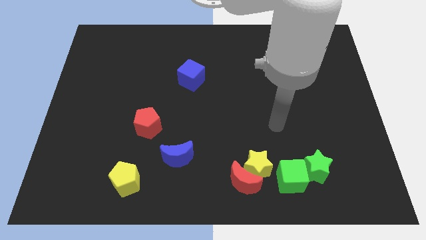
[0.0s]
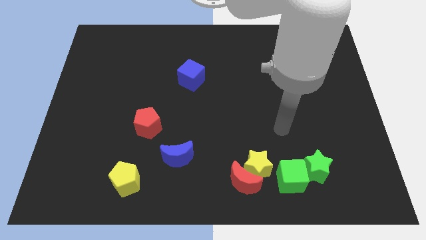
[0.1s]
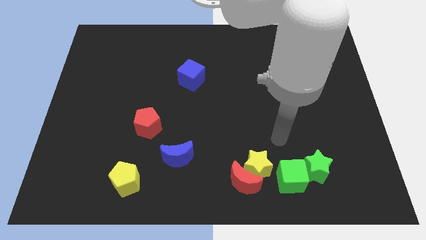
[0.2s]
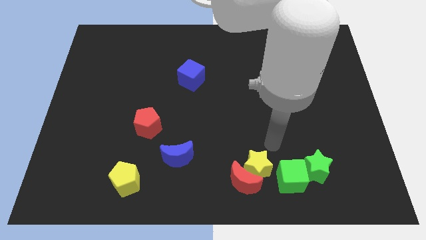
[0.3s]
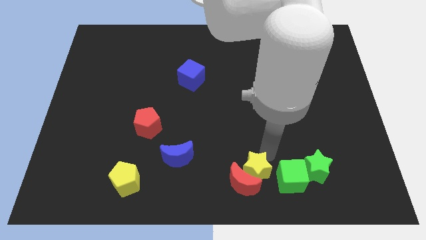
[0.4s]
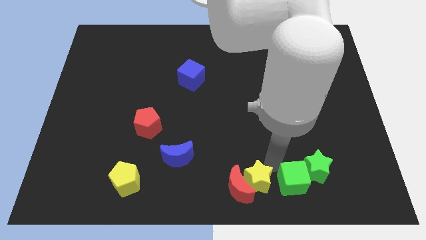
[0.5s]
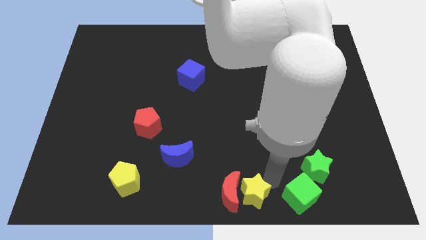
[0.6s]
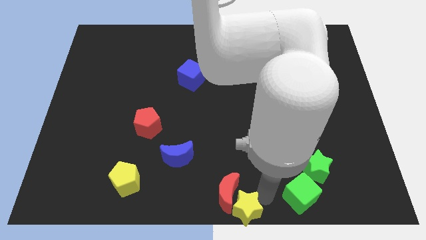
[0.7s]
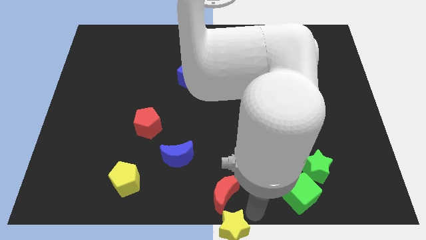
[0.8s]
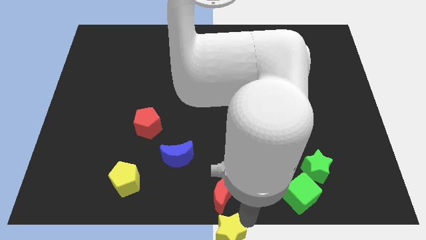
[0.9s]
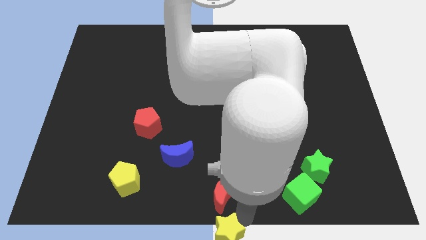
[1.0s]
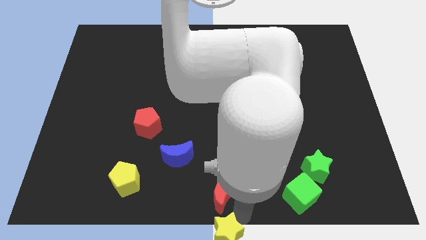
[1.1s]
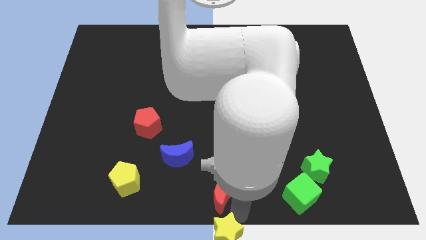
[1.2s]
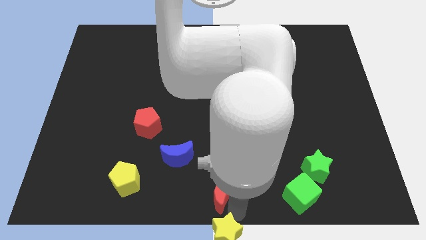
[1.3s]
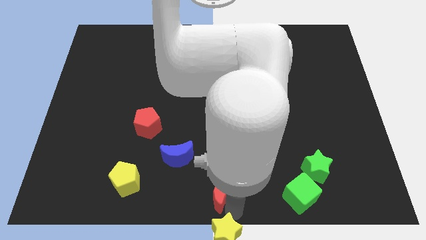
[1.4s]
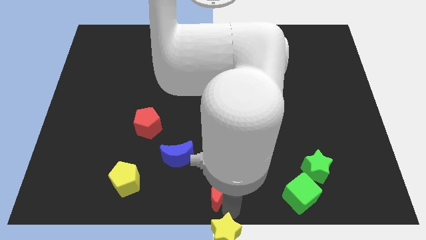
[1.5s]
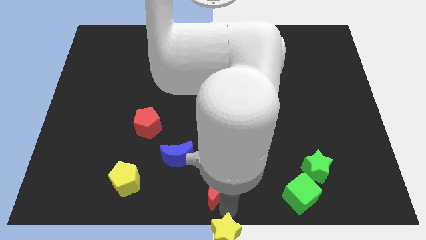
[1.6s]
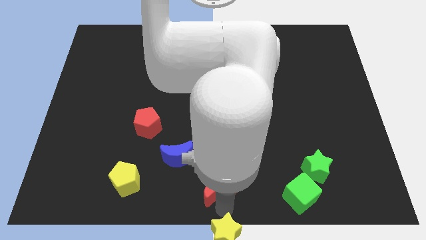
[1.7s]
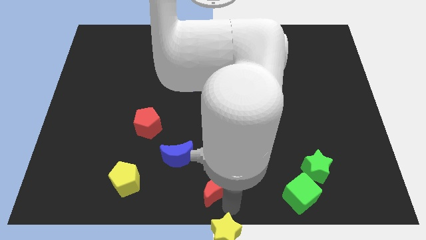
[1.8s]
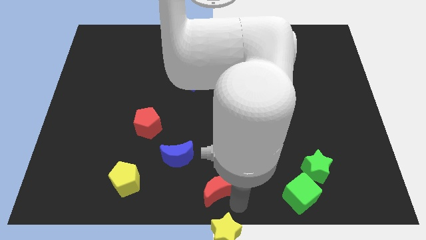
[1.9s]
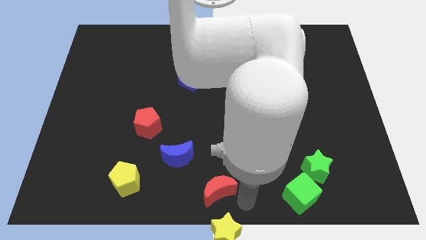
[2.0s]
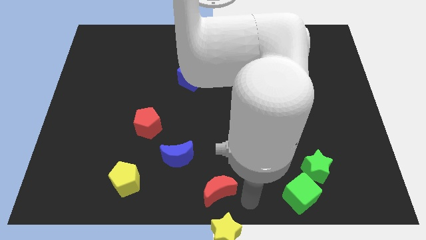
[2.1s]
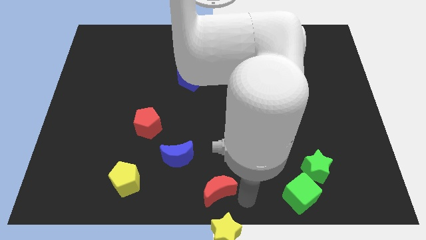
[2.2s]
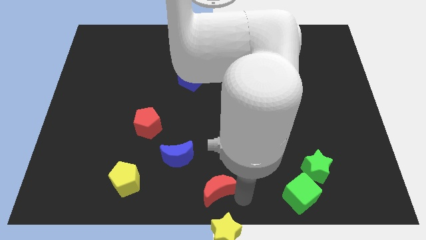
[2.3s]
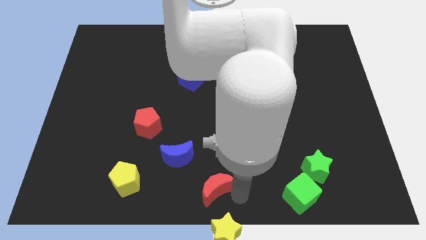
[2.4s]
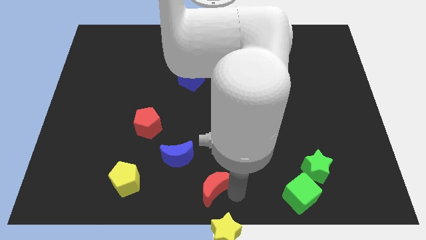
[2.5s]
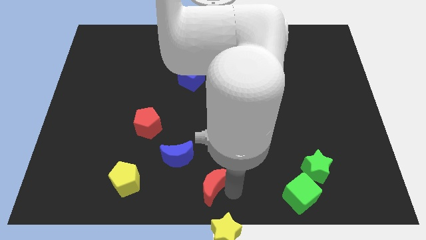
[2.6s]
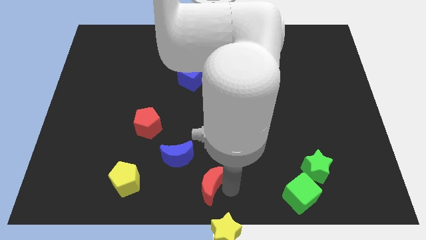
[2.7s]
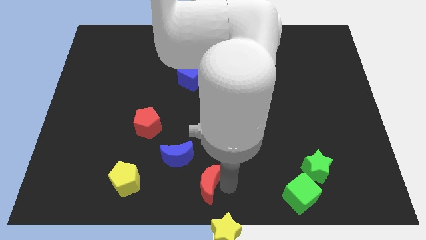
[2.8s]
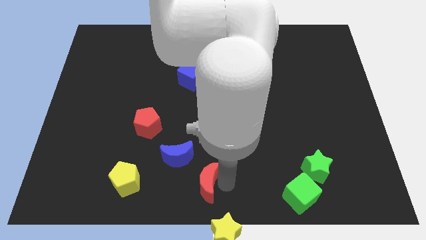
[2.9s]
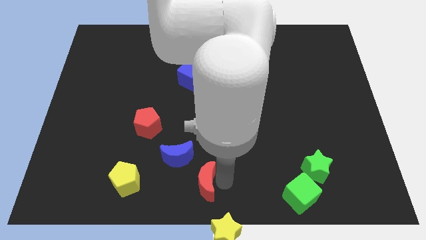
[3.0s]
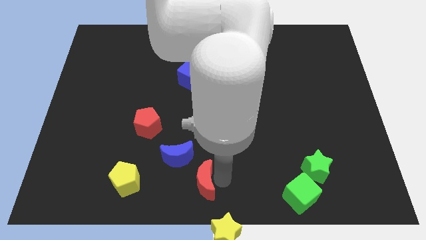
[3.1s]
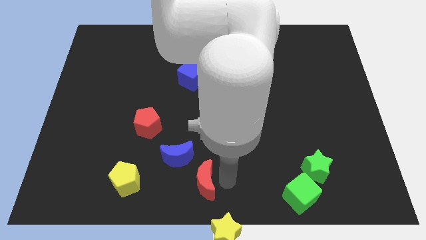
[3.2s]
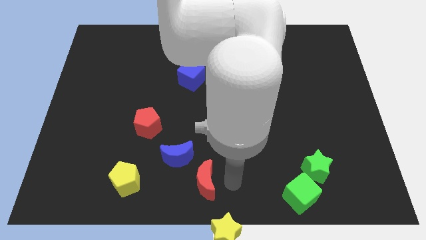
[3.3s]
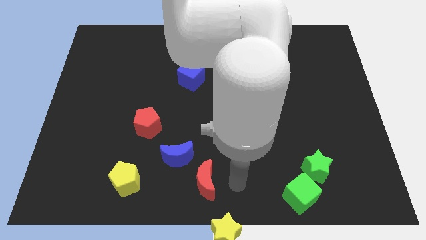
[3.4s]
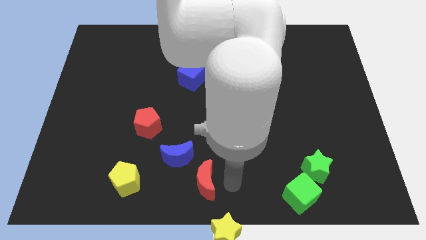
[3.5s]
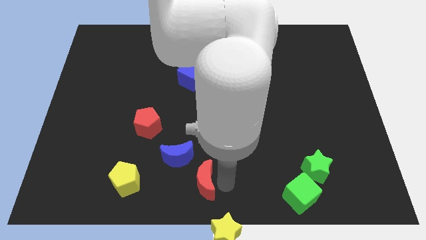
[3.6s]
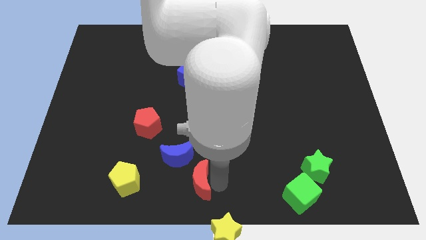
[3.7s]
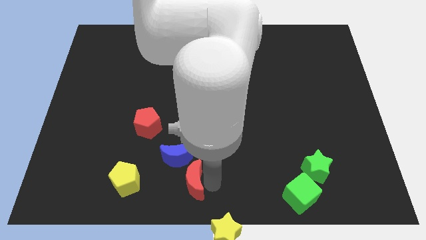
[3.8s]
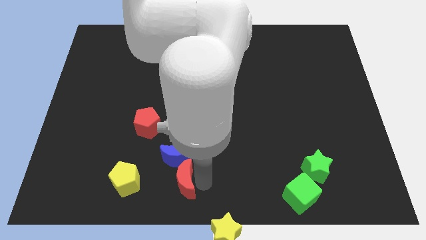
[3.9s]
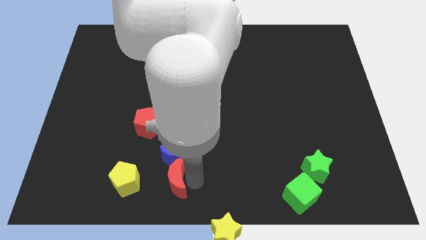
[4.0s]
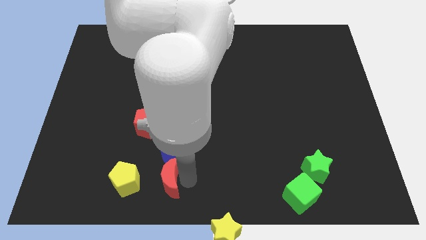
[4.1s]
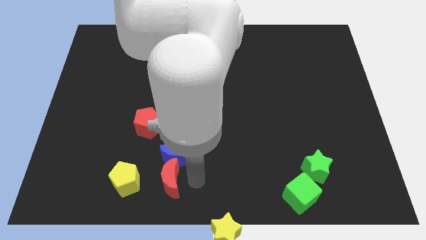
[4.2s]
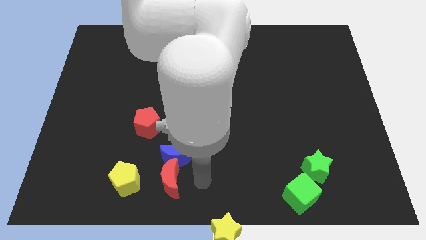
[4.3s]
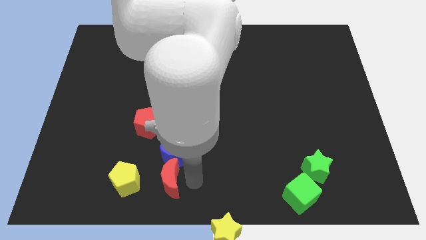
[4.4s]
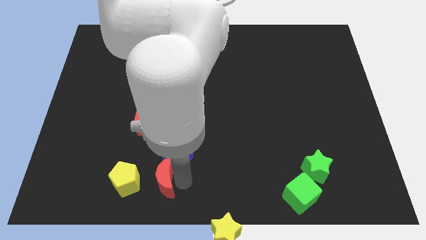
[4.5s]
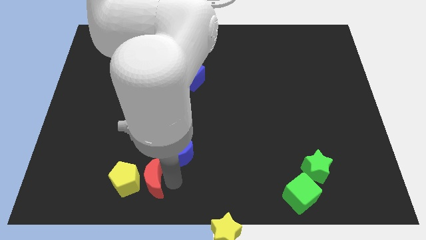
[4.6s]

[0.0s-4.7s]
push the red moon to the yellow pentagon

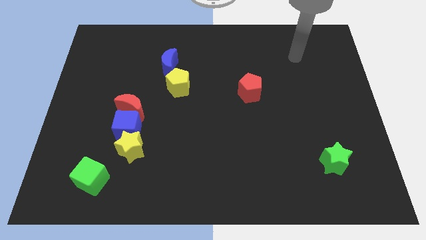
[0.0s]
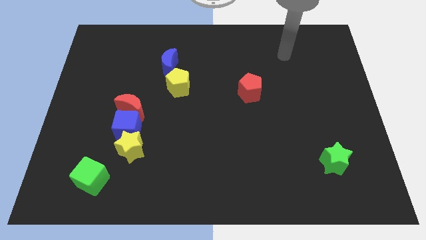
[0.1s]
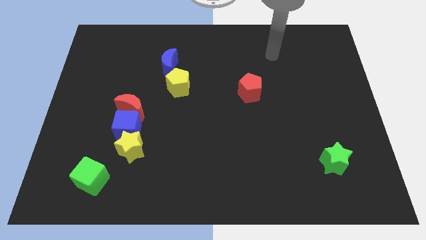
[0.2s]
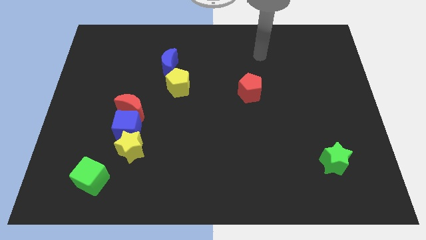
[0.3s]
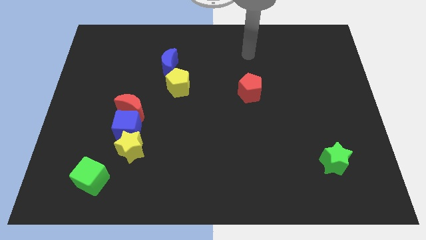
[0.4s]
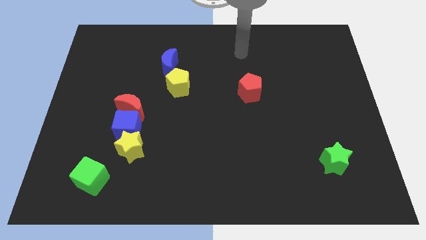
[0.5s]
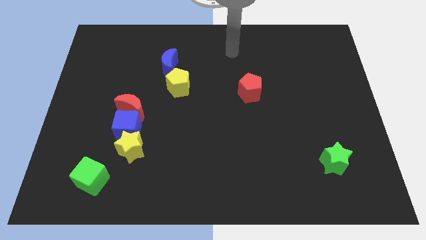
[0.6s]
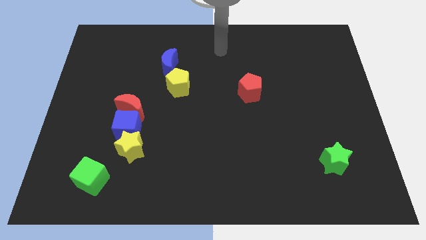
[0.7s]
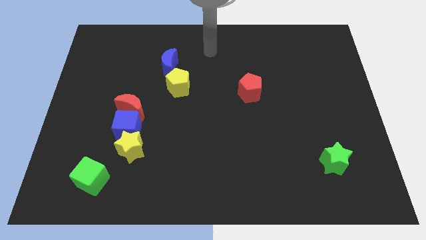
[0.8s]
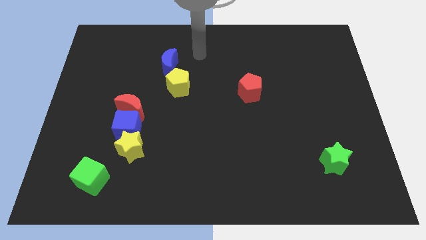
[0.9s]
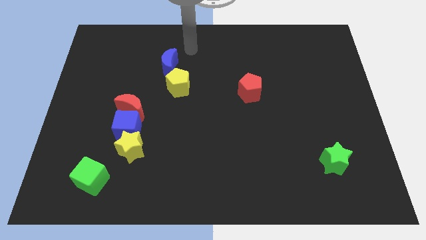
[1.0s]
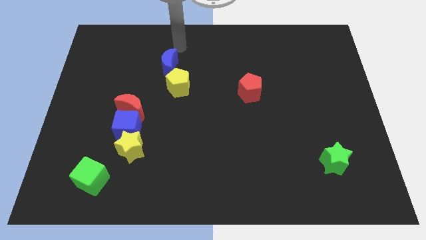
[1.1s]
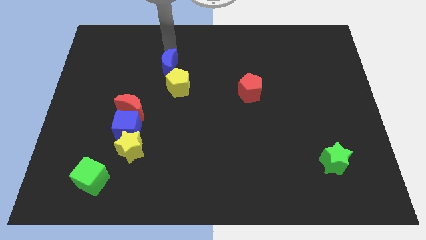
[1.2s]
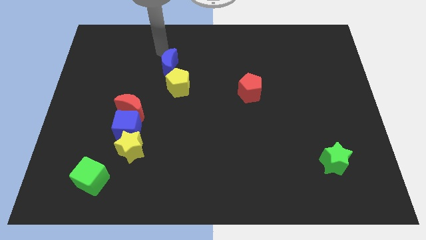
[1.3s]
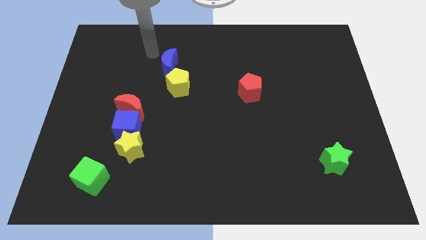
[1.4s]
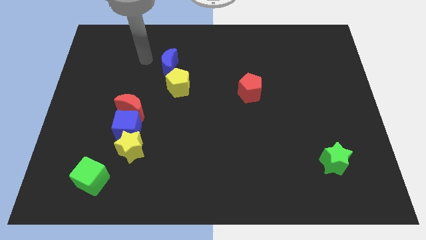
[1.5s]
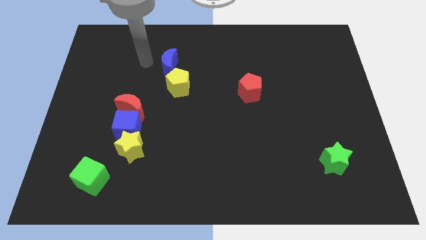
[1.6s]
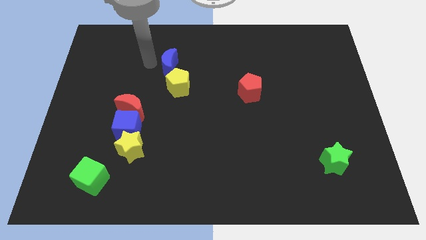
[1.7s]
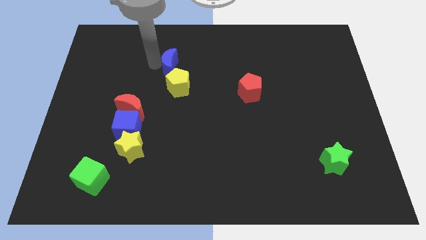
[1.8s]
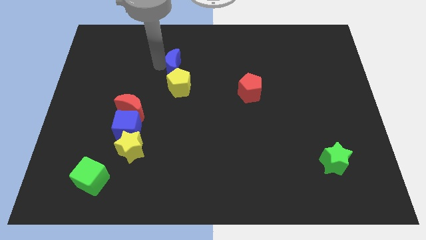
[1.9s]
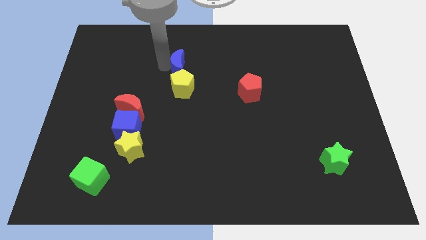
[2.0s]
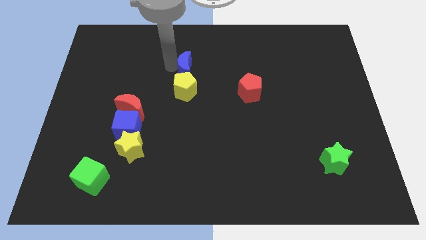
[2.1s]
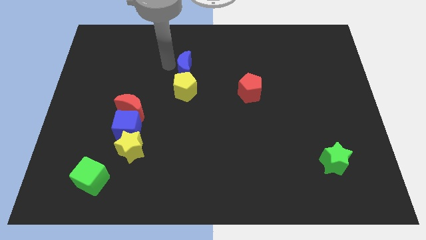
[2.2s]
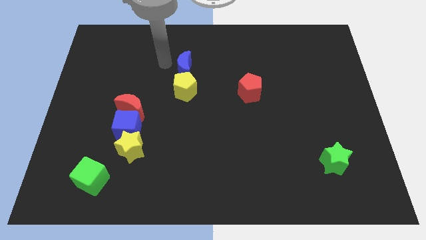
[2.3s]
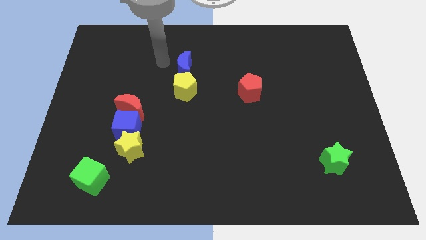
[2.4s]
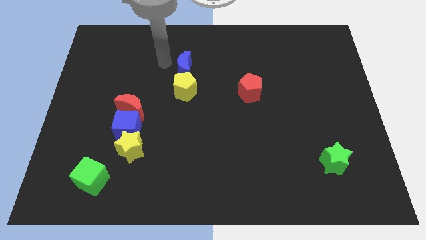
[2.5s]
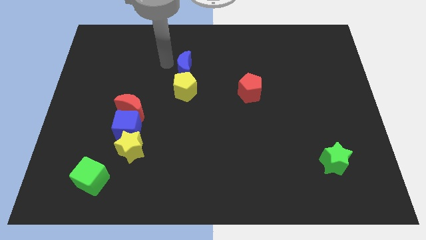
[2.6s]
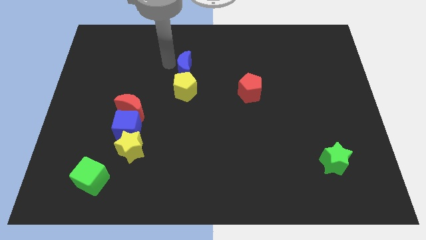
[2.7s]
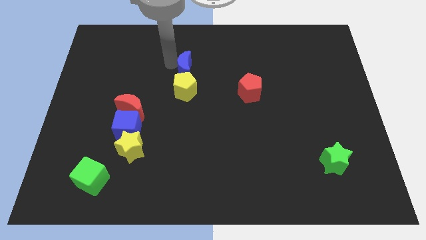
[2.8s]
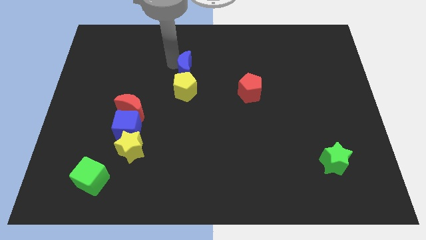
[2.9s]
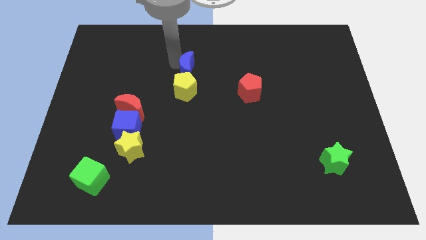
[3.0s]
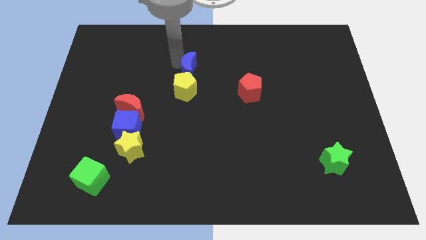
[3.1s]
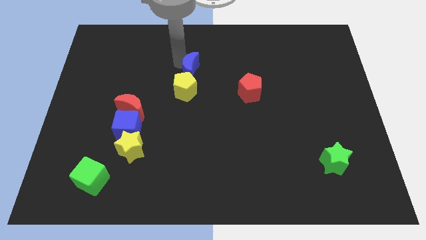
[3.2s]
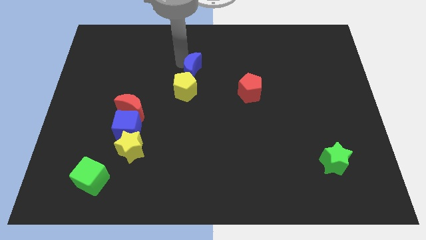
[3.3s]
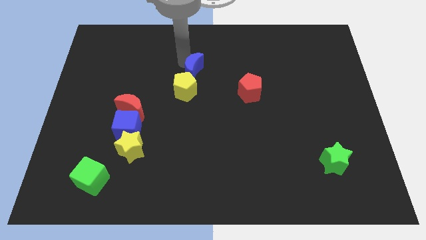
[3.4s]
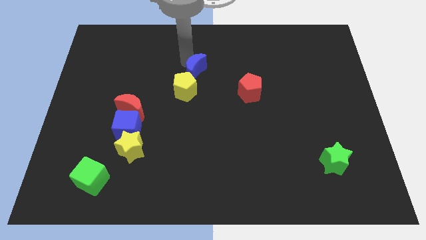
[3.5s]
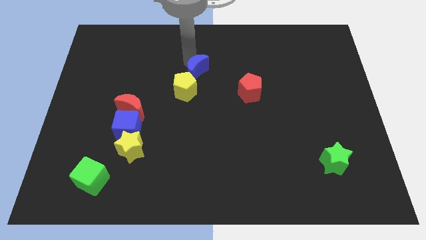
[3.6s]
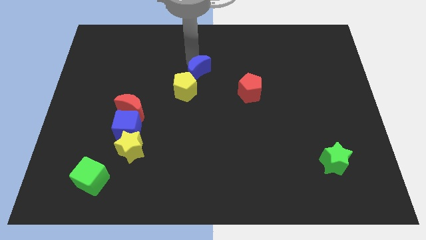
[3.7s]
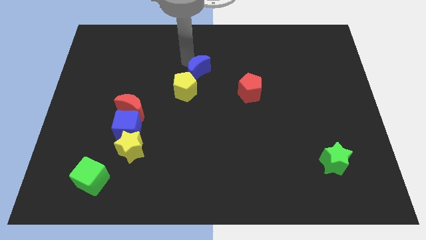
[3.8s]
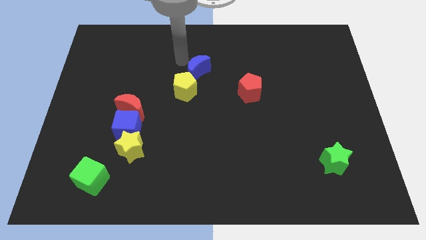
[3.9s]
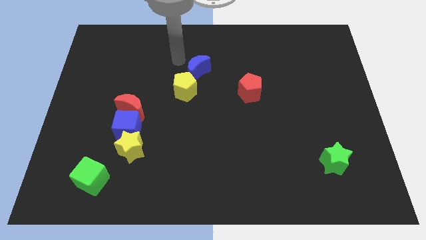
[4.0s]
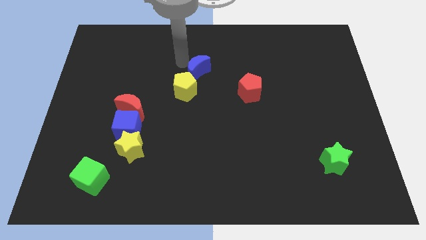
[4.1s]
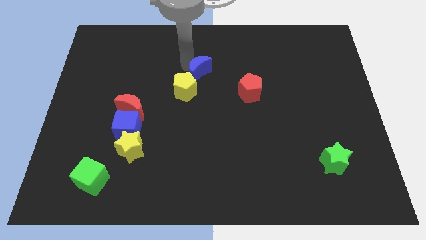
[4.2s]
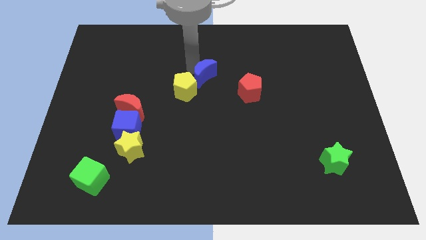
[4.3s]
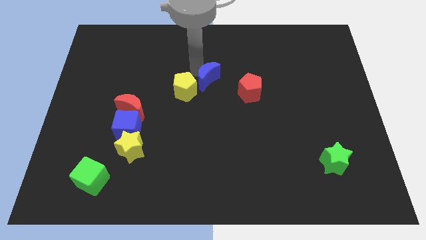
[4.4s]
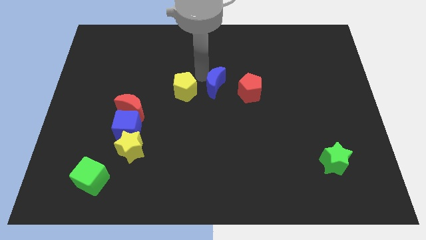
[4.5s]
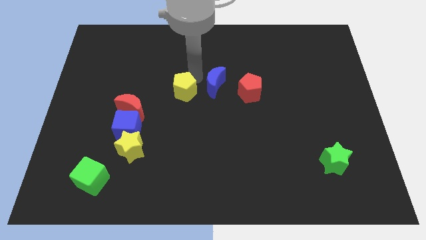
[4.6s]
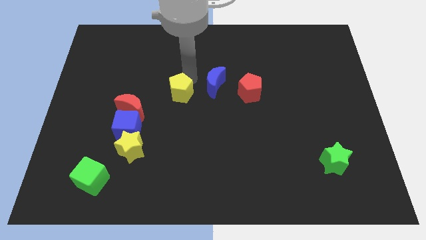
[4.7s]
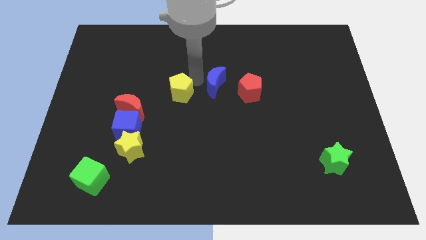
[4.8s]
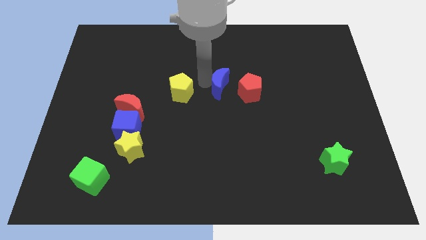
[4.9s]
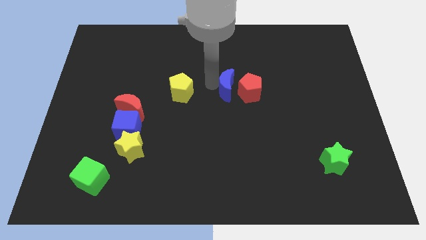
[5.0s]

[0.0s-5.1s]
push the blue moon close to the red pentagon
